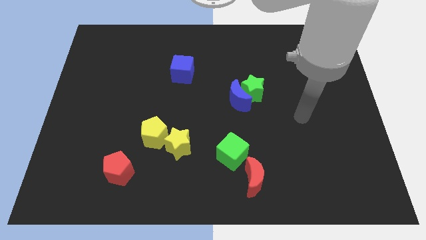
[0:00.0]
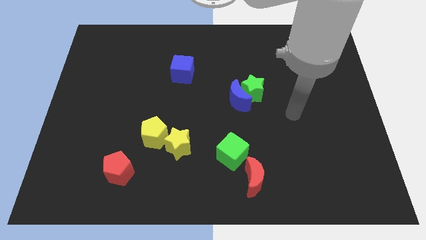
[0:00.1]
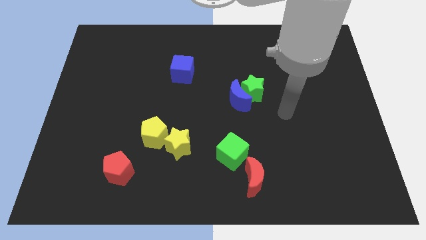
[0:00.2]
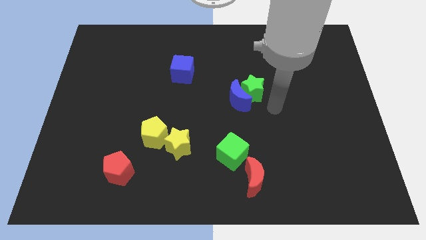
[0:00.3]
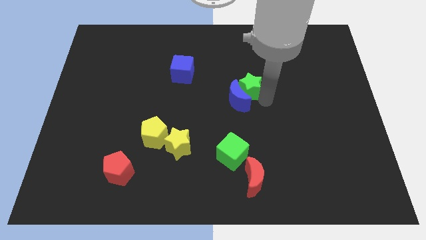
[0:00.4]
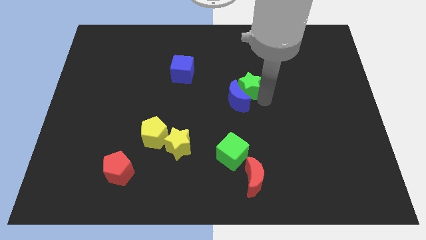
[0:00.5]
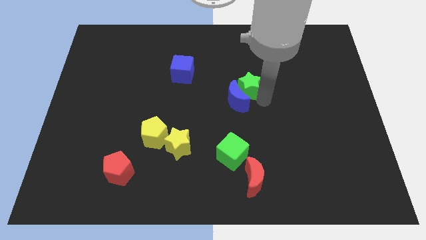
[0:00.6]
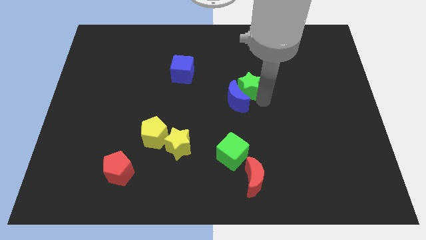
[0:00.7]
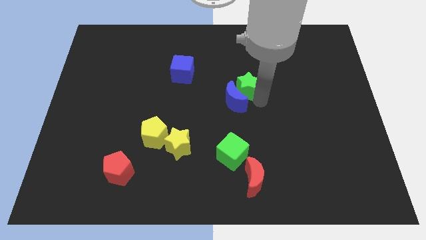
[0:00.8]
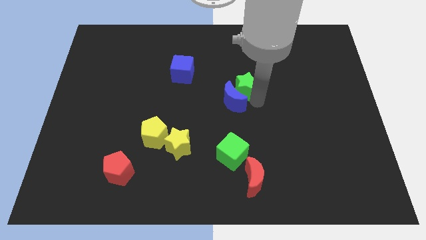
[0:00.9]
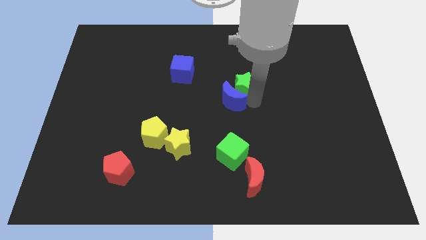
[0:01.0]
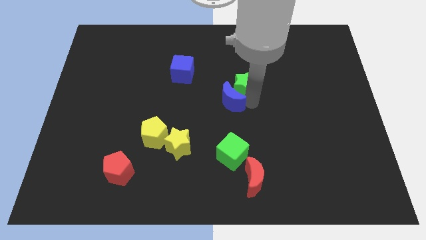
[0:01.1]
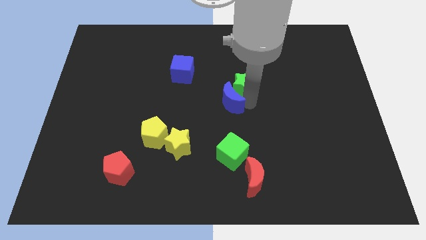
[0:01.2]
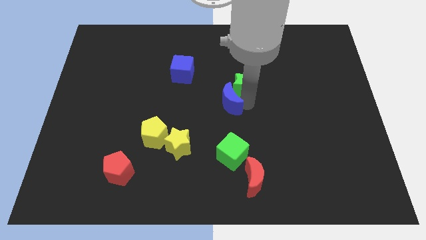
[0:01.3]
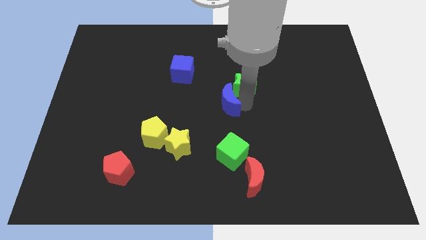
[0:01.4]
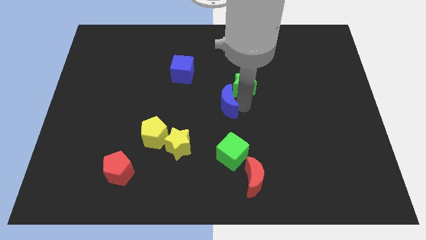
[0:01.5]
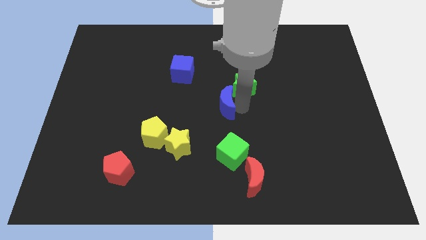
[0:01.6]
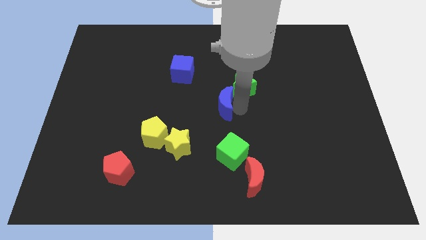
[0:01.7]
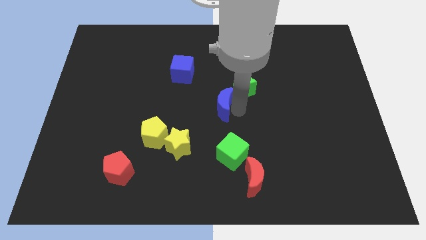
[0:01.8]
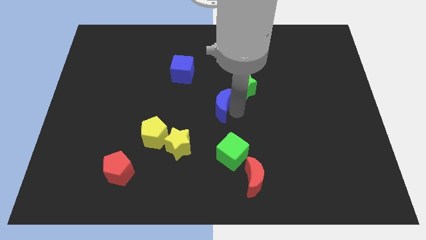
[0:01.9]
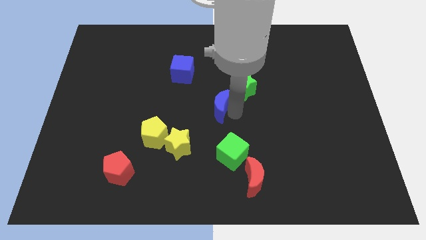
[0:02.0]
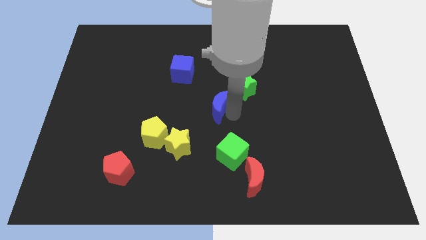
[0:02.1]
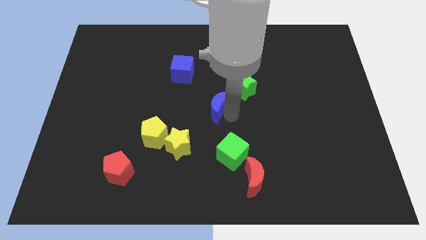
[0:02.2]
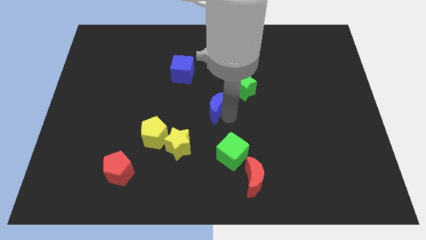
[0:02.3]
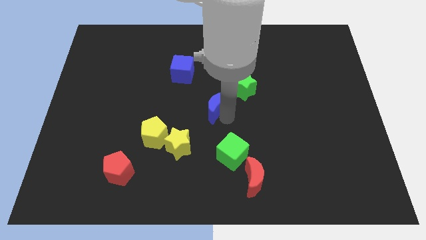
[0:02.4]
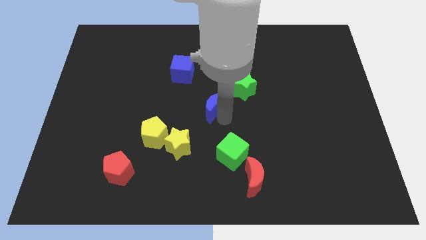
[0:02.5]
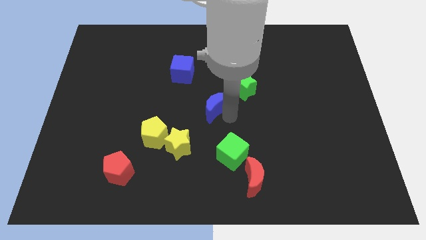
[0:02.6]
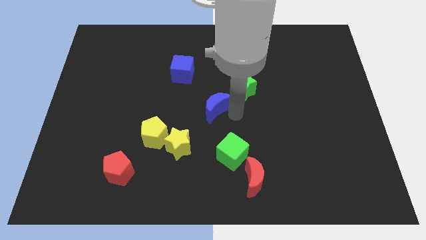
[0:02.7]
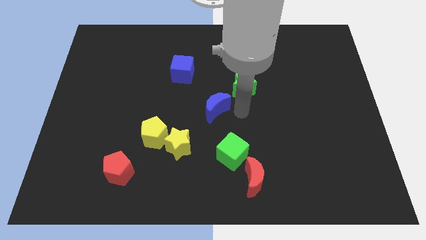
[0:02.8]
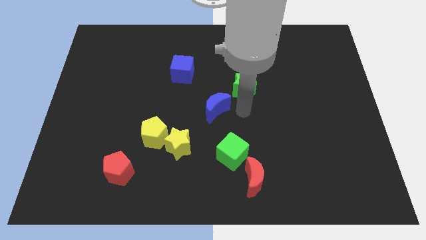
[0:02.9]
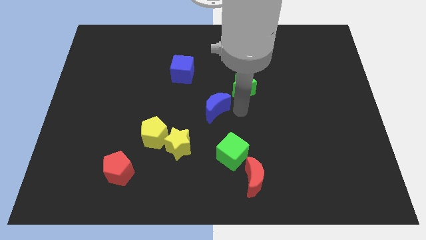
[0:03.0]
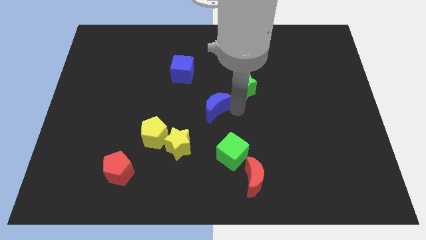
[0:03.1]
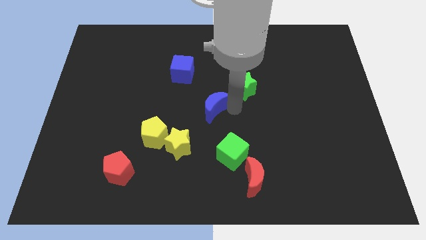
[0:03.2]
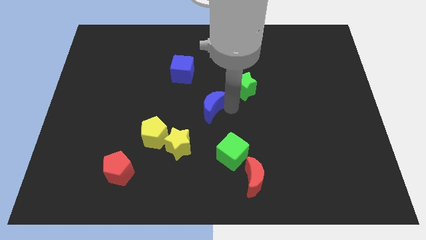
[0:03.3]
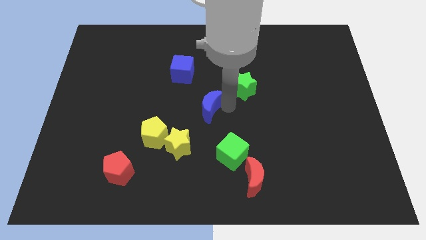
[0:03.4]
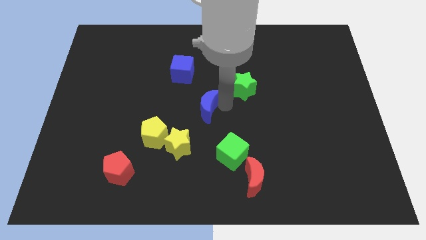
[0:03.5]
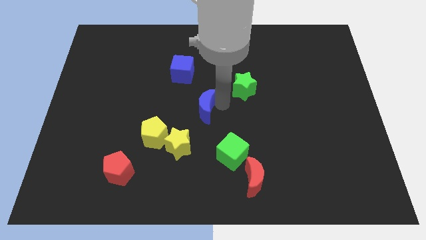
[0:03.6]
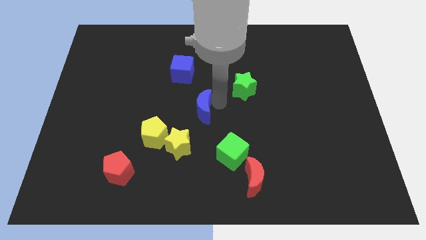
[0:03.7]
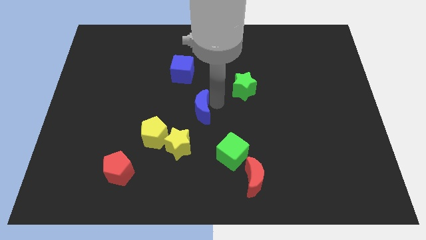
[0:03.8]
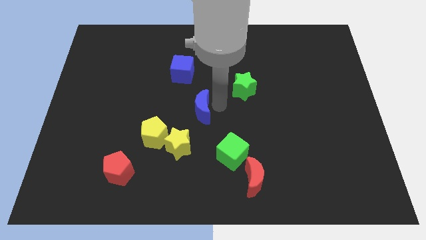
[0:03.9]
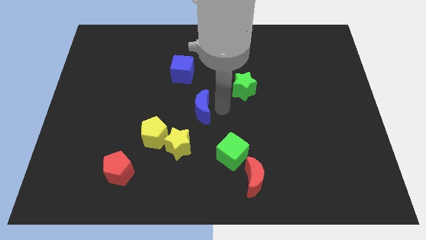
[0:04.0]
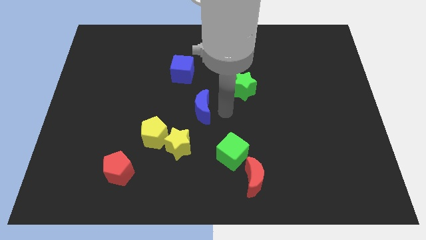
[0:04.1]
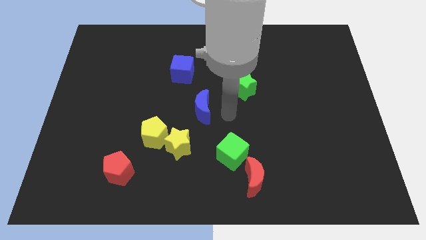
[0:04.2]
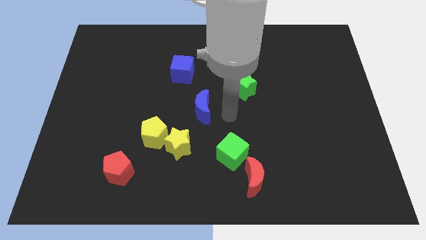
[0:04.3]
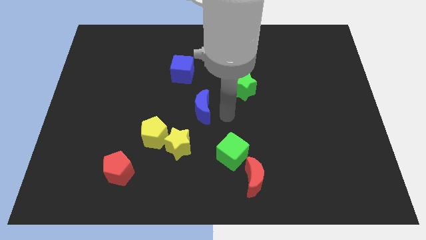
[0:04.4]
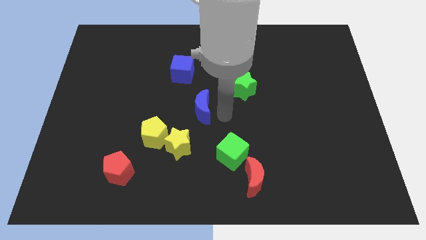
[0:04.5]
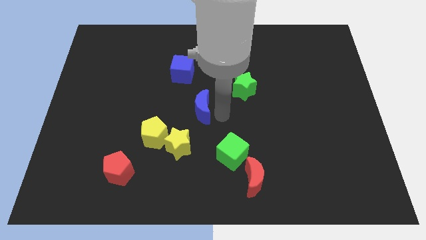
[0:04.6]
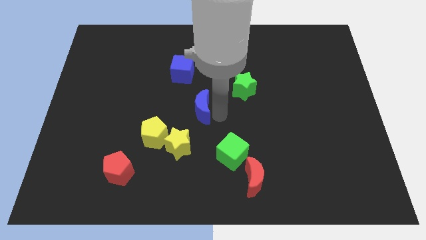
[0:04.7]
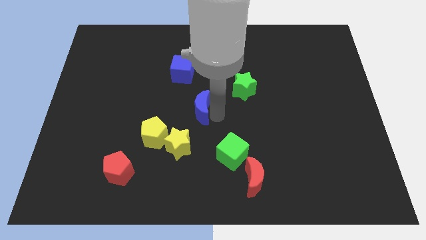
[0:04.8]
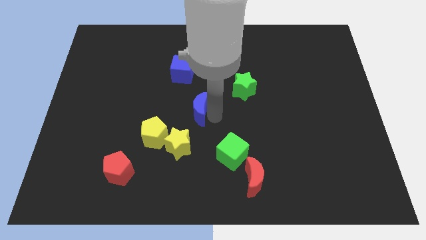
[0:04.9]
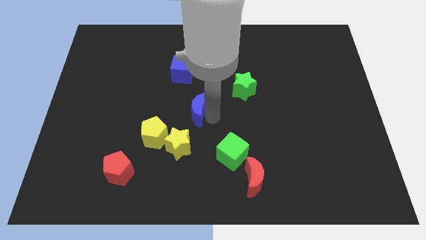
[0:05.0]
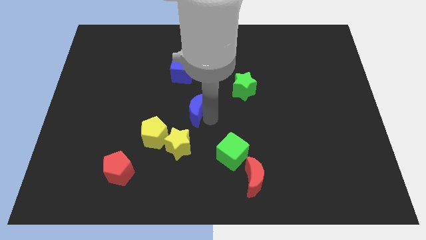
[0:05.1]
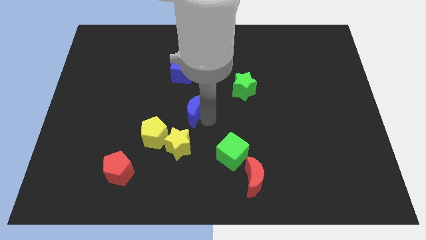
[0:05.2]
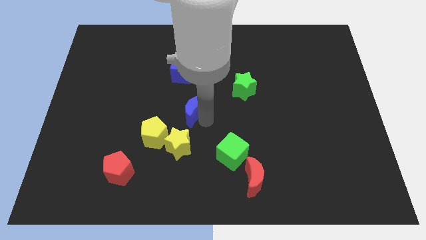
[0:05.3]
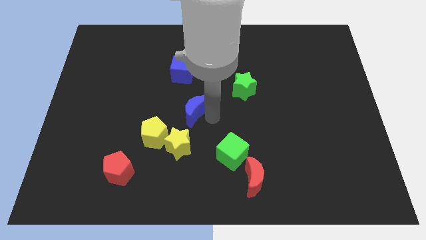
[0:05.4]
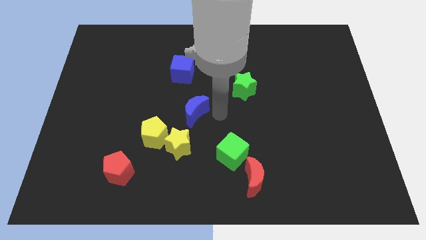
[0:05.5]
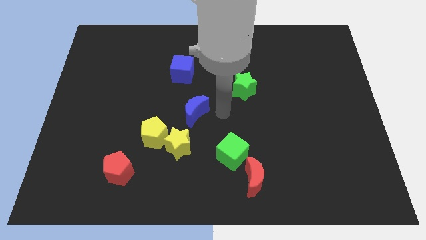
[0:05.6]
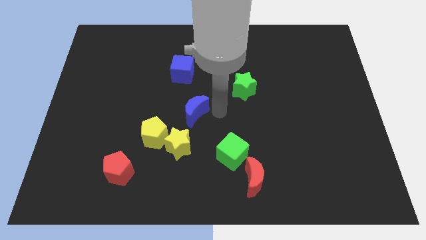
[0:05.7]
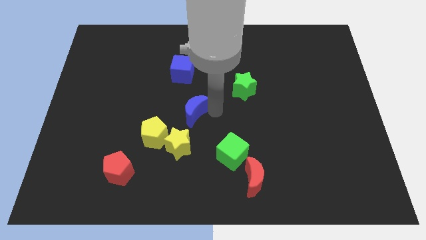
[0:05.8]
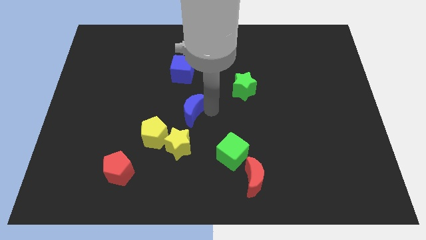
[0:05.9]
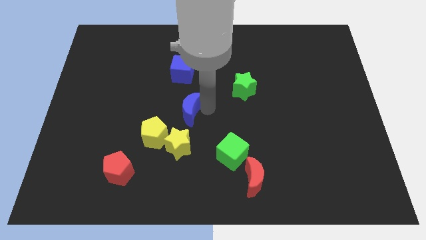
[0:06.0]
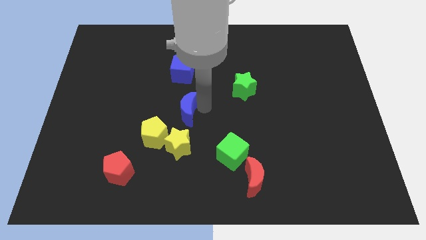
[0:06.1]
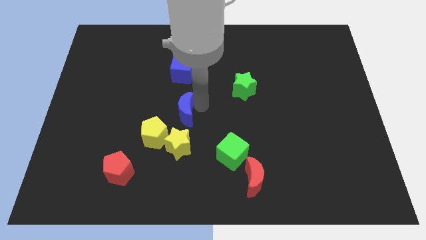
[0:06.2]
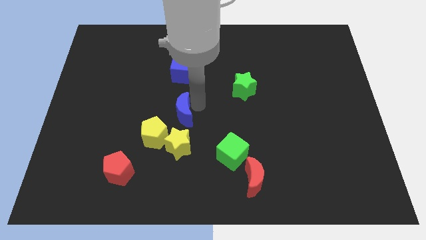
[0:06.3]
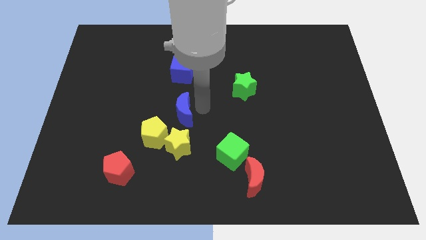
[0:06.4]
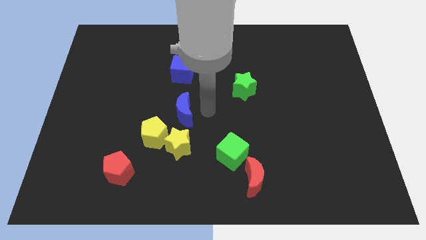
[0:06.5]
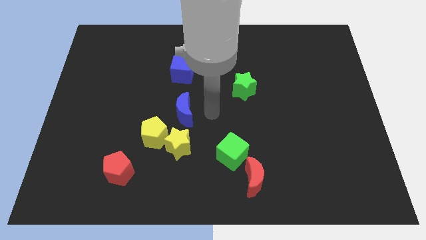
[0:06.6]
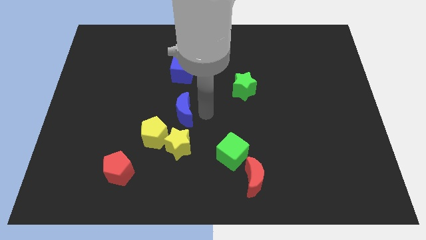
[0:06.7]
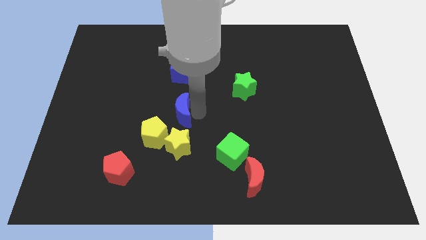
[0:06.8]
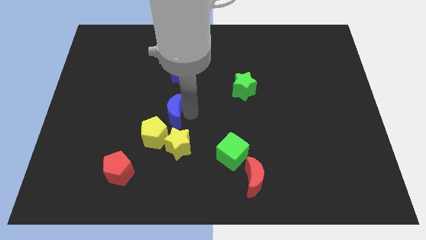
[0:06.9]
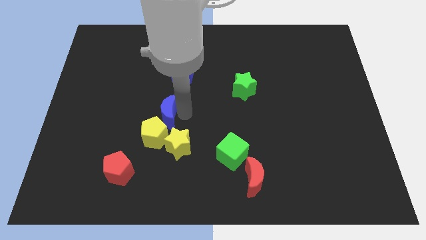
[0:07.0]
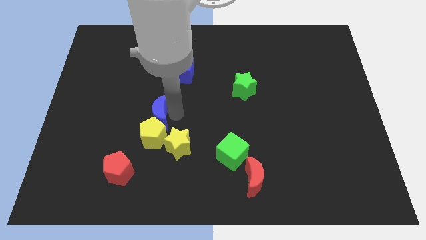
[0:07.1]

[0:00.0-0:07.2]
push the blue moon diagonally up and to the left of the yellow pentagon
